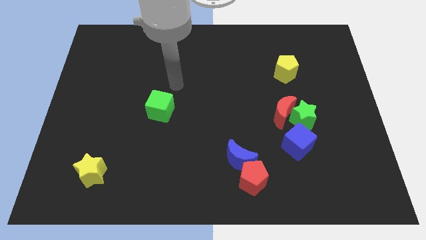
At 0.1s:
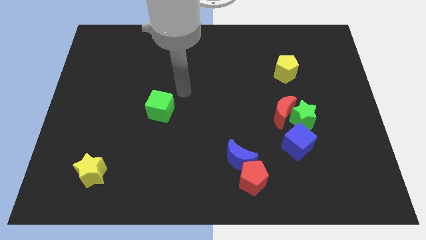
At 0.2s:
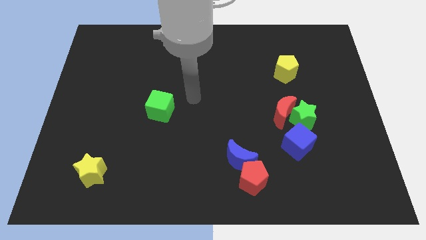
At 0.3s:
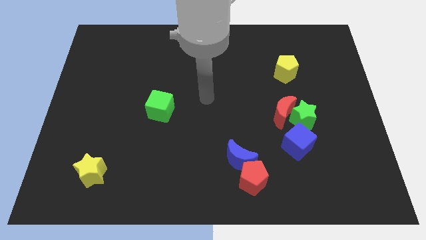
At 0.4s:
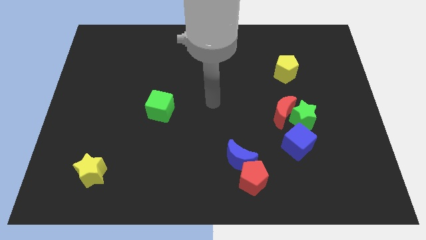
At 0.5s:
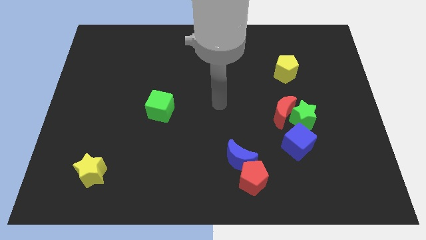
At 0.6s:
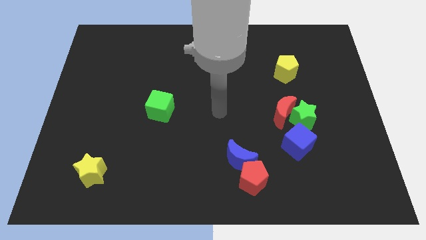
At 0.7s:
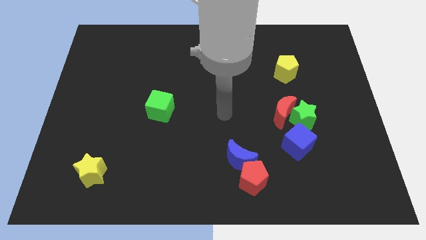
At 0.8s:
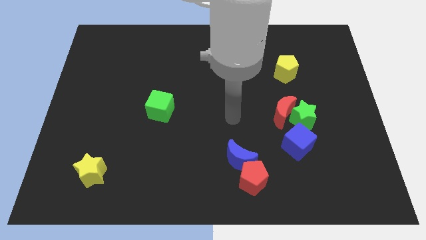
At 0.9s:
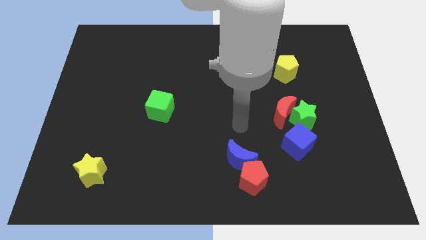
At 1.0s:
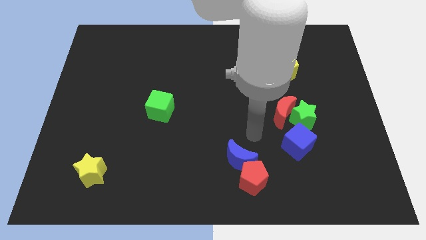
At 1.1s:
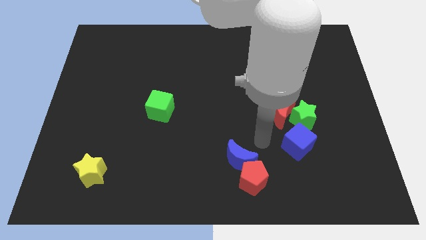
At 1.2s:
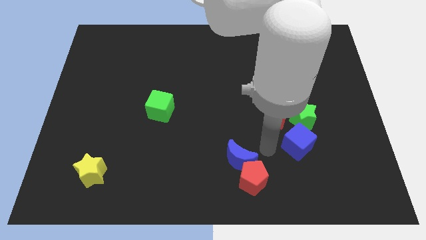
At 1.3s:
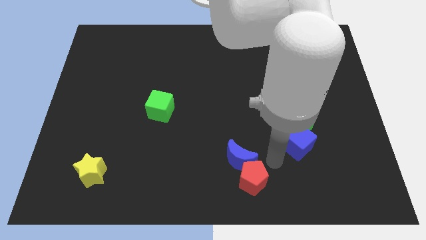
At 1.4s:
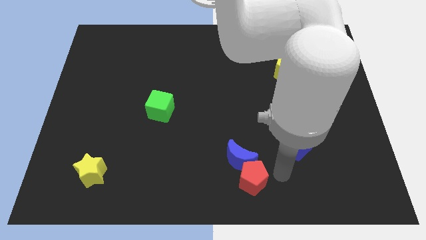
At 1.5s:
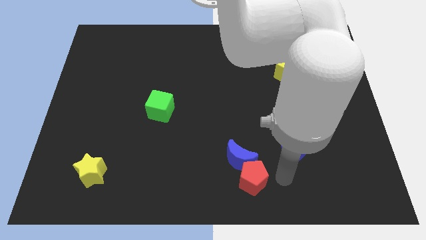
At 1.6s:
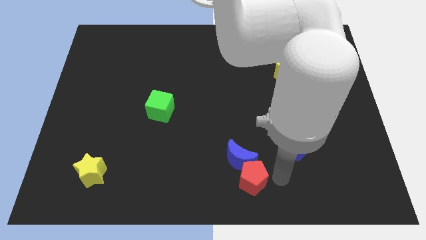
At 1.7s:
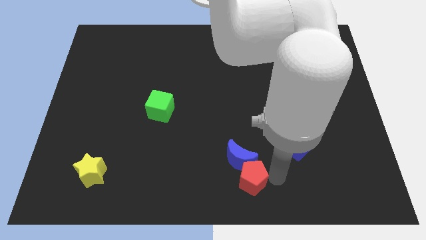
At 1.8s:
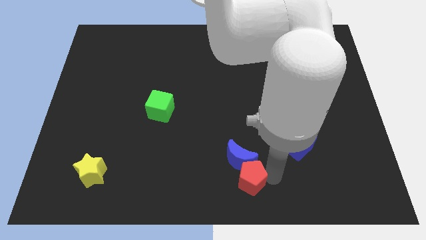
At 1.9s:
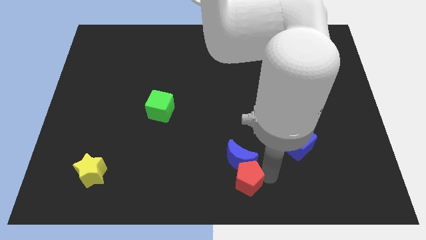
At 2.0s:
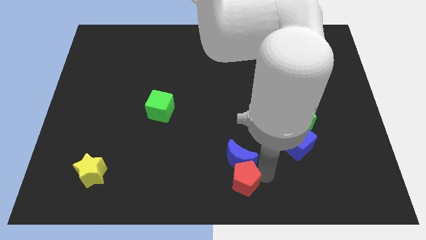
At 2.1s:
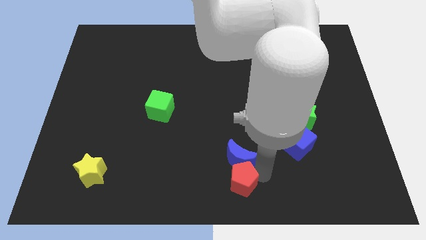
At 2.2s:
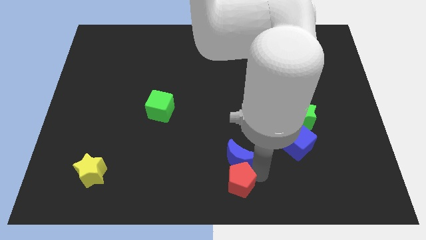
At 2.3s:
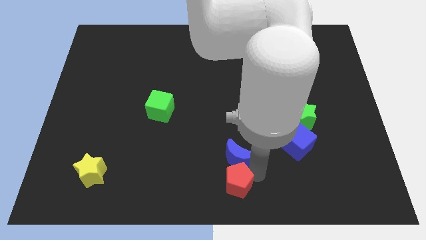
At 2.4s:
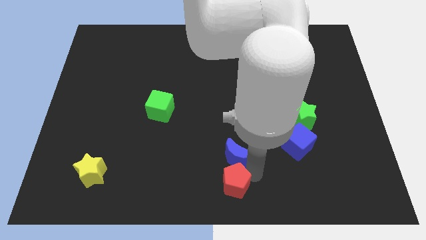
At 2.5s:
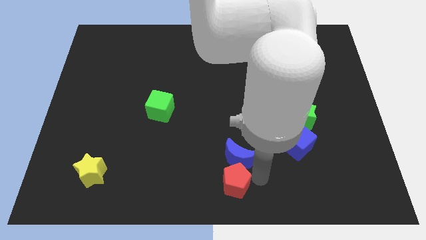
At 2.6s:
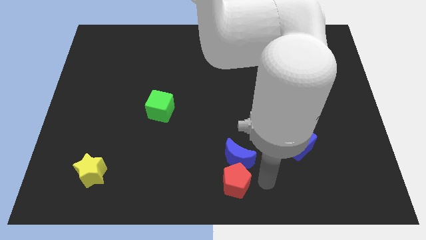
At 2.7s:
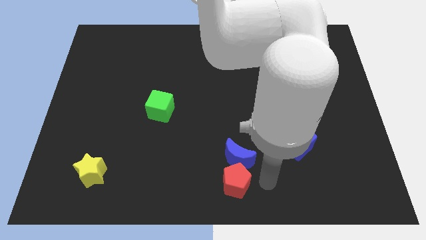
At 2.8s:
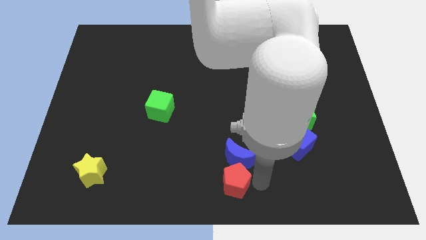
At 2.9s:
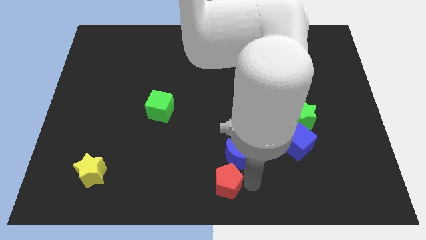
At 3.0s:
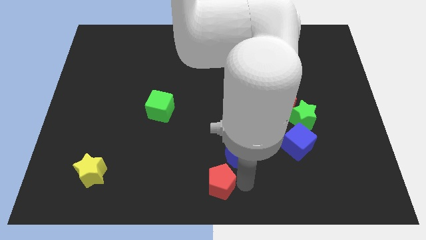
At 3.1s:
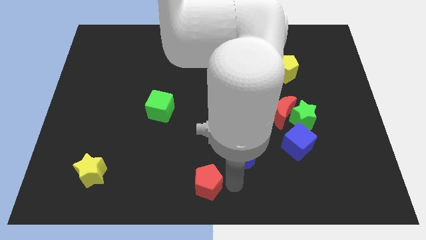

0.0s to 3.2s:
move the red pentagon somewhat left

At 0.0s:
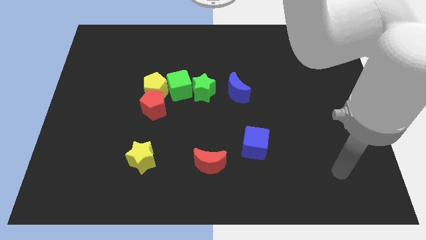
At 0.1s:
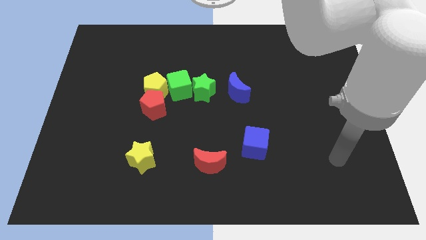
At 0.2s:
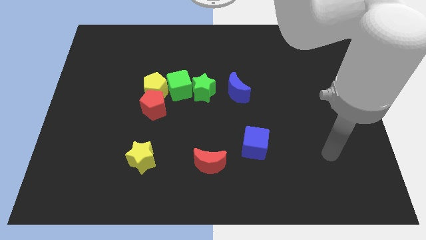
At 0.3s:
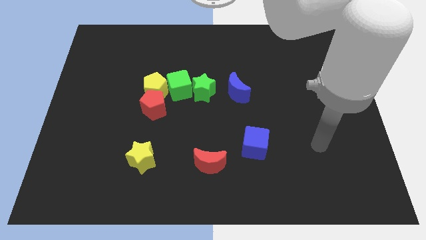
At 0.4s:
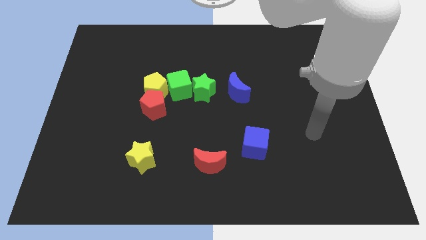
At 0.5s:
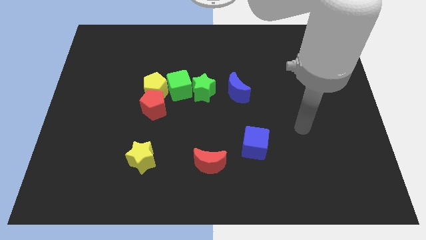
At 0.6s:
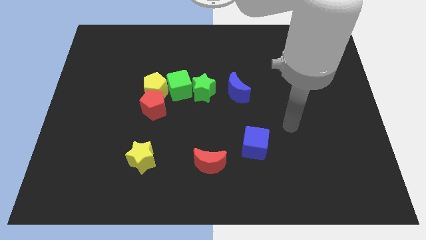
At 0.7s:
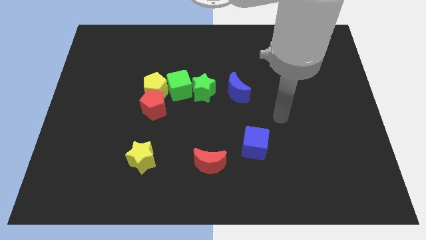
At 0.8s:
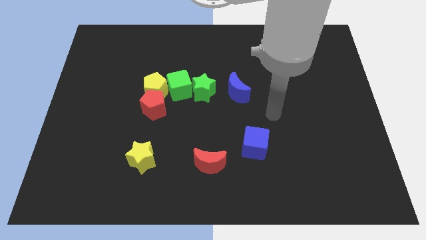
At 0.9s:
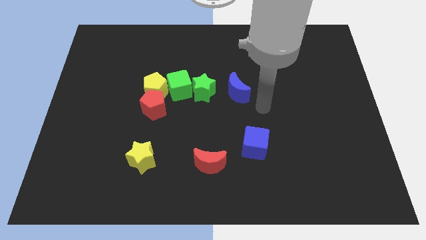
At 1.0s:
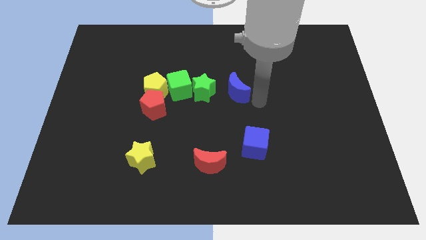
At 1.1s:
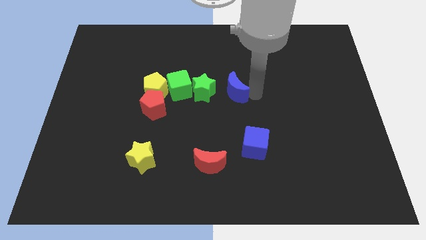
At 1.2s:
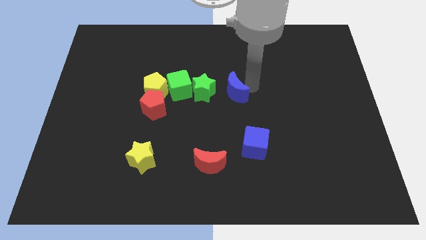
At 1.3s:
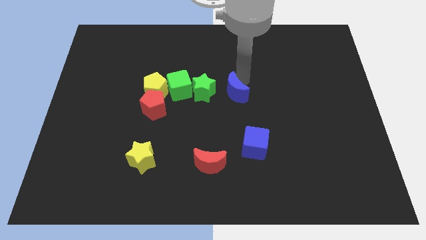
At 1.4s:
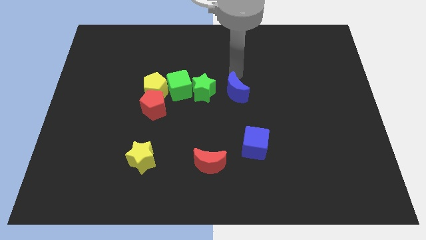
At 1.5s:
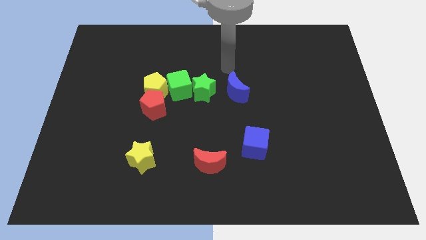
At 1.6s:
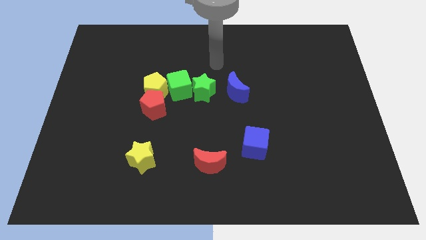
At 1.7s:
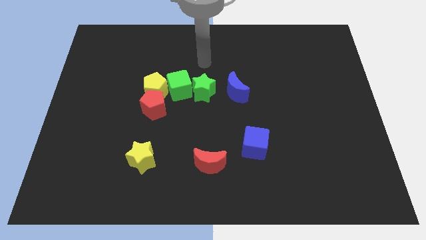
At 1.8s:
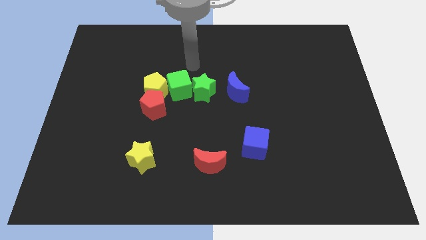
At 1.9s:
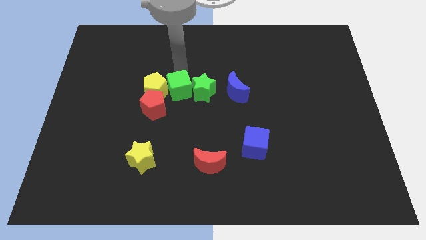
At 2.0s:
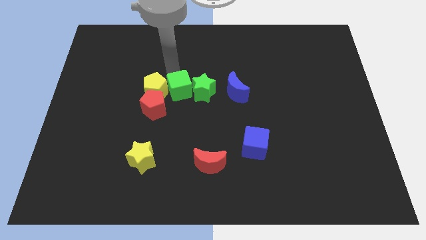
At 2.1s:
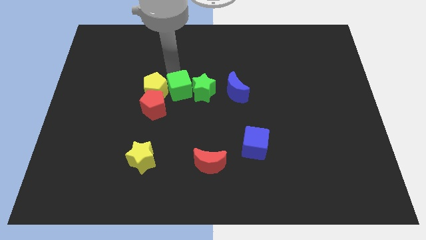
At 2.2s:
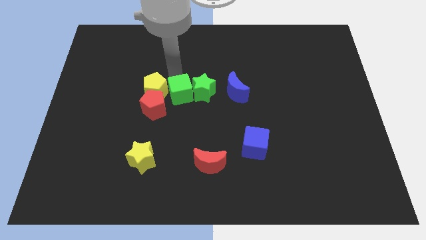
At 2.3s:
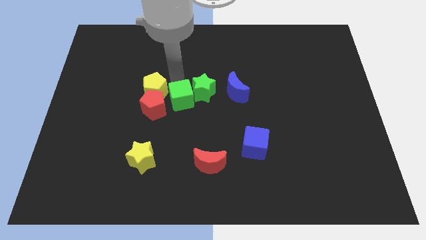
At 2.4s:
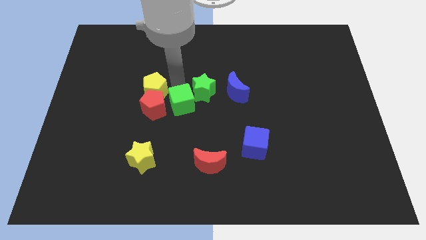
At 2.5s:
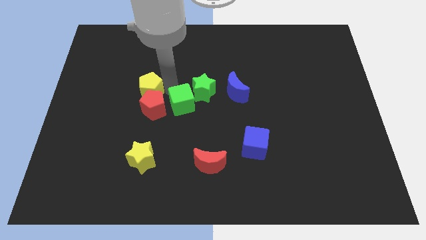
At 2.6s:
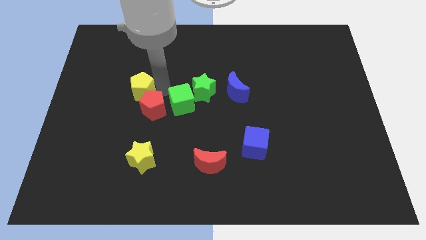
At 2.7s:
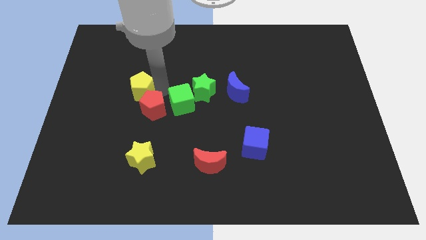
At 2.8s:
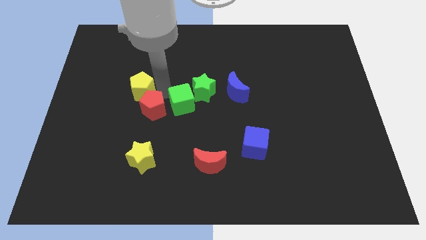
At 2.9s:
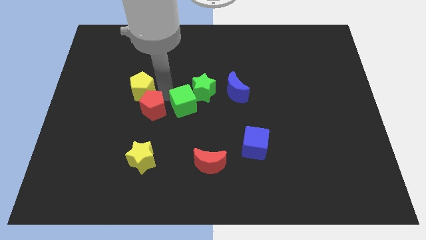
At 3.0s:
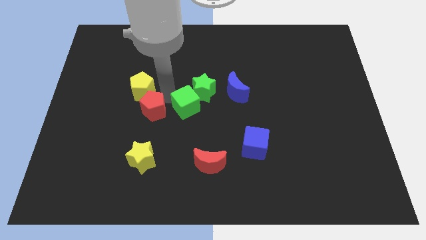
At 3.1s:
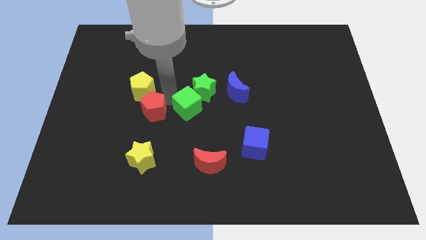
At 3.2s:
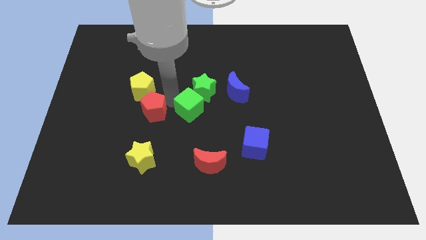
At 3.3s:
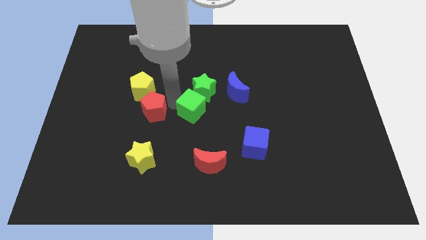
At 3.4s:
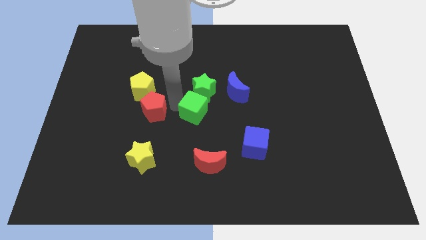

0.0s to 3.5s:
move the green cube a little down and to the right diagonally

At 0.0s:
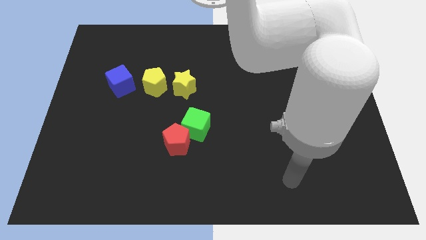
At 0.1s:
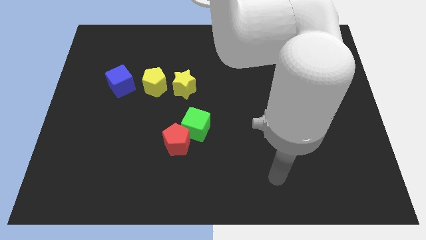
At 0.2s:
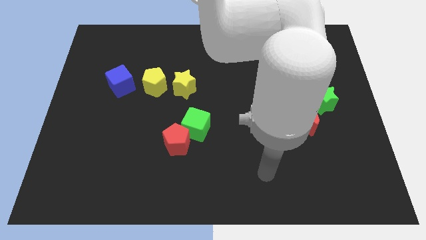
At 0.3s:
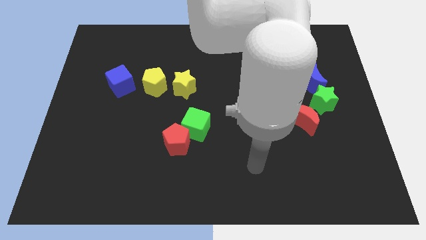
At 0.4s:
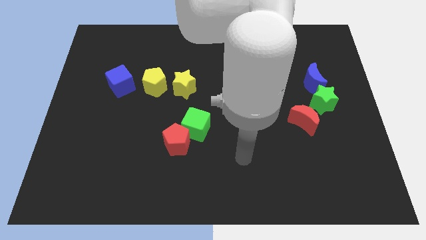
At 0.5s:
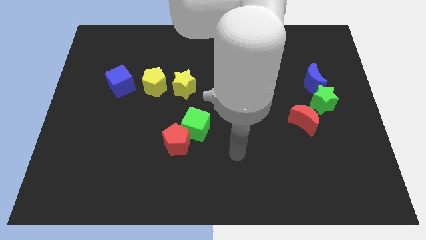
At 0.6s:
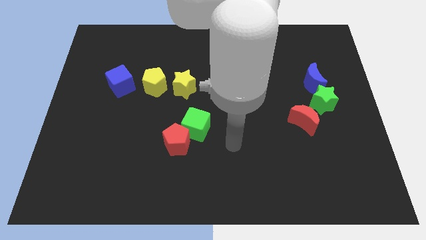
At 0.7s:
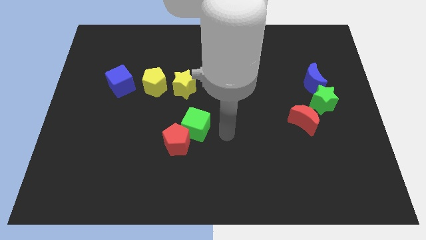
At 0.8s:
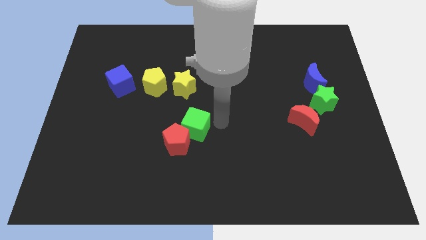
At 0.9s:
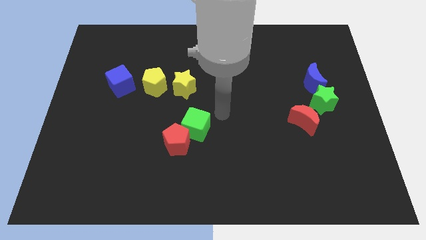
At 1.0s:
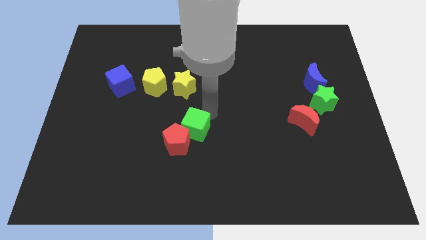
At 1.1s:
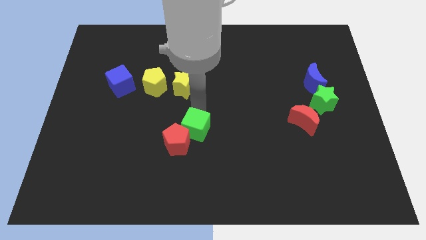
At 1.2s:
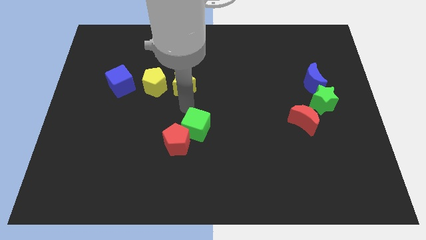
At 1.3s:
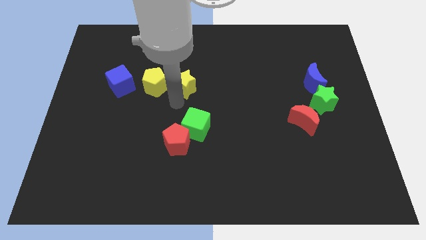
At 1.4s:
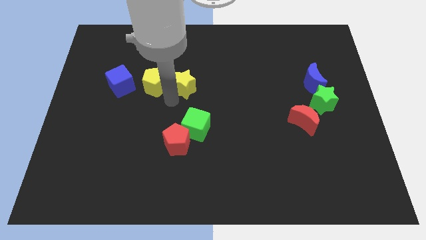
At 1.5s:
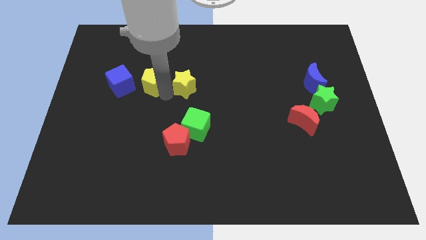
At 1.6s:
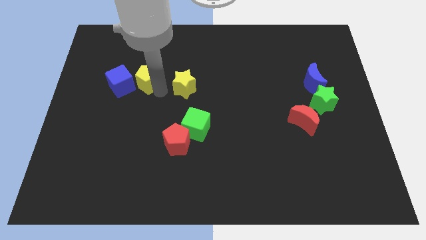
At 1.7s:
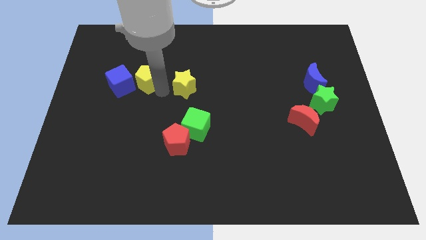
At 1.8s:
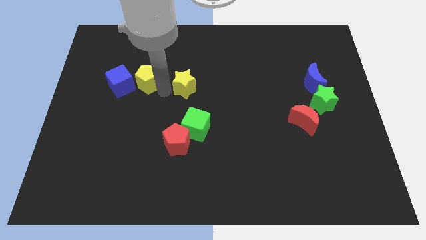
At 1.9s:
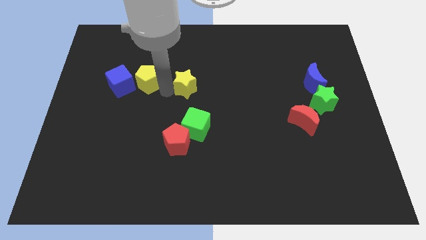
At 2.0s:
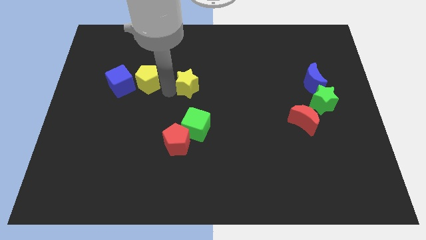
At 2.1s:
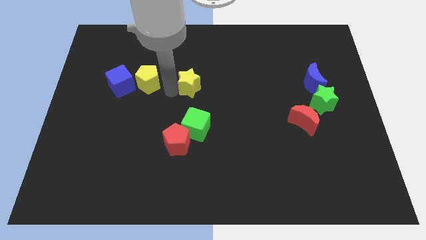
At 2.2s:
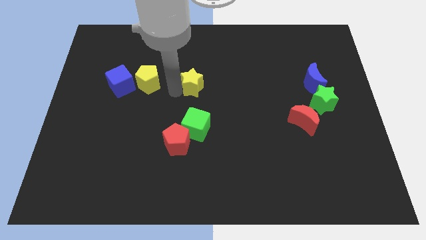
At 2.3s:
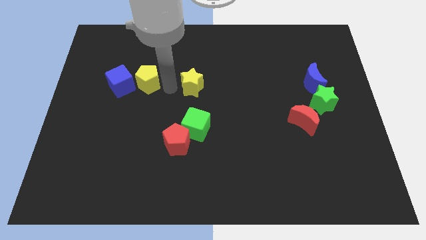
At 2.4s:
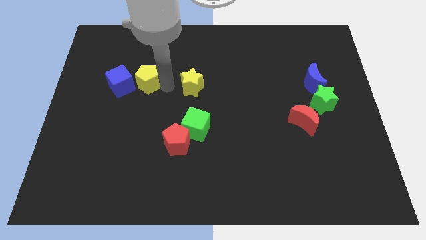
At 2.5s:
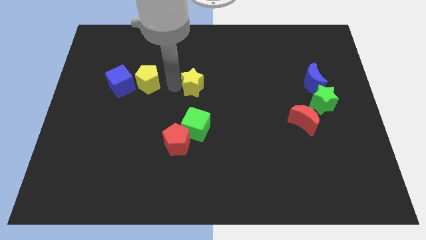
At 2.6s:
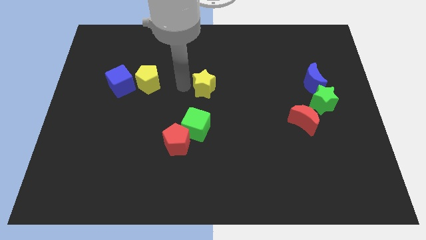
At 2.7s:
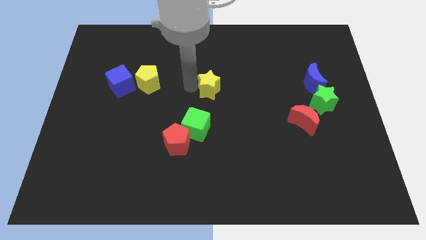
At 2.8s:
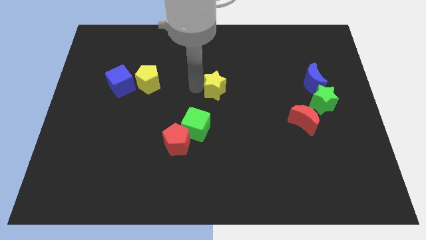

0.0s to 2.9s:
push the yellow star a little to the right
